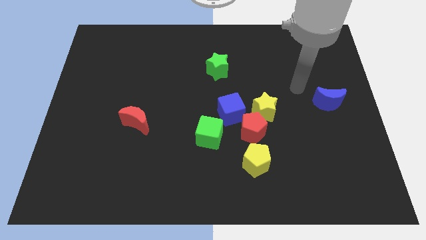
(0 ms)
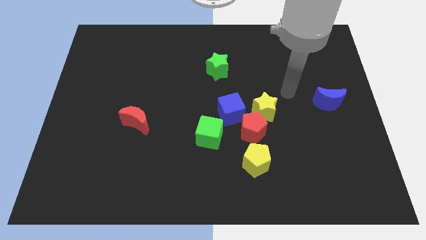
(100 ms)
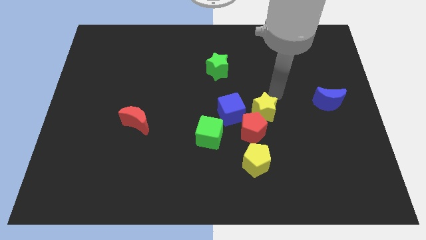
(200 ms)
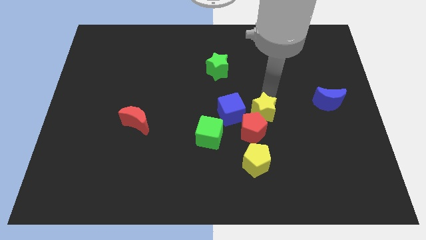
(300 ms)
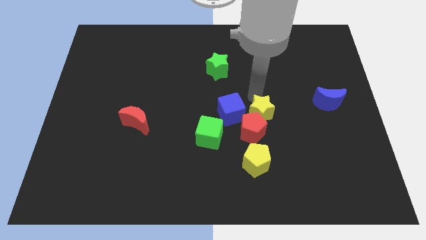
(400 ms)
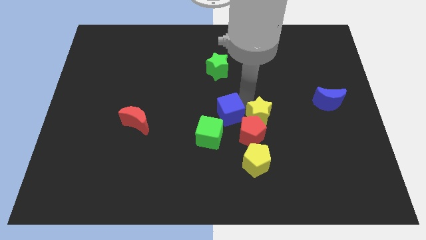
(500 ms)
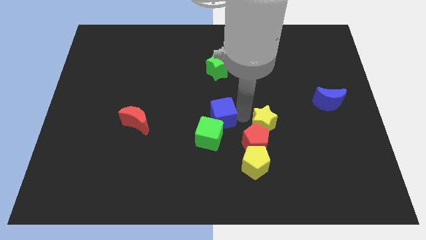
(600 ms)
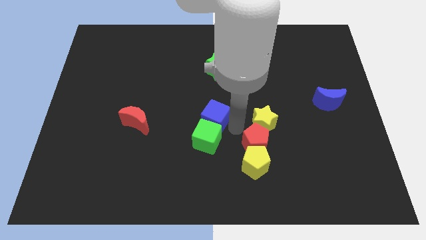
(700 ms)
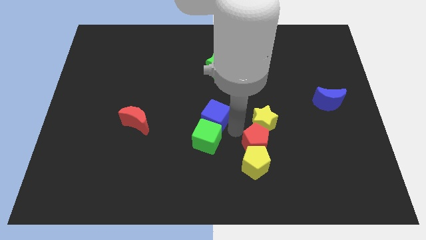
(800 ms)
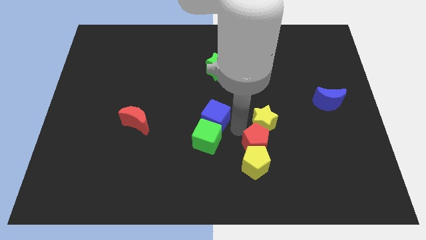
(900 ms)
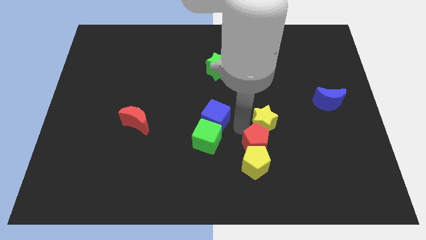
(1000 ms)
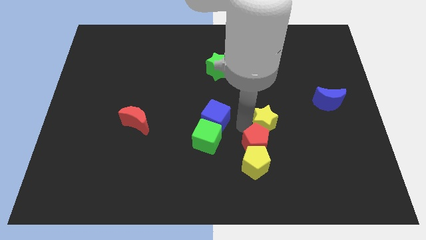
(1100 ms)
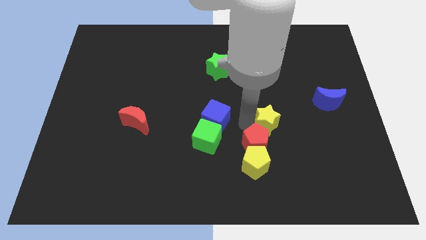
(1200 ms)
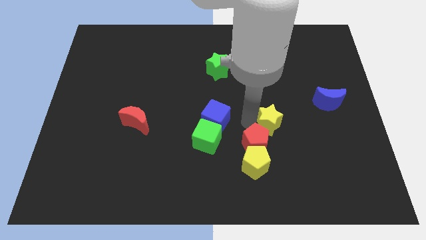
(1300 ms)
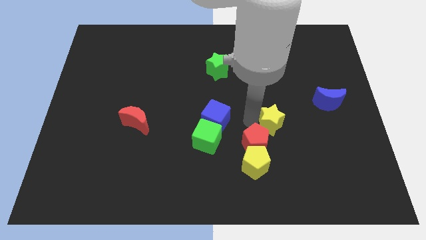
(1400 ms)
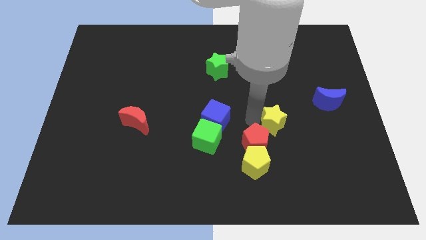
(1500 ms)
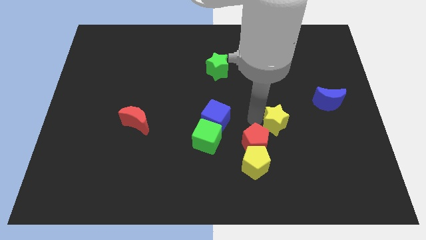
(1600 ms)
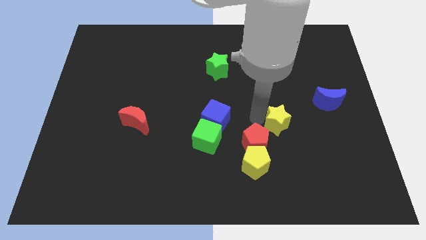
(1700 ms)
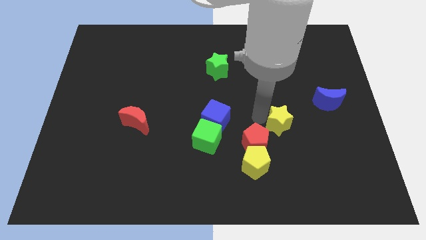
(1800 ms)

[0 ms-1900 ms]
separate the yellow star from the red pentagon and blue cube

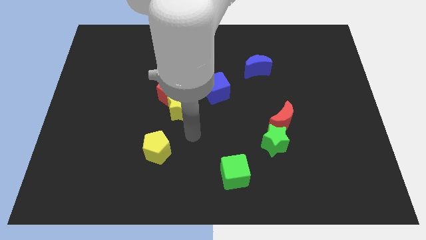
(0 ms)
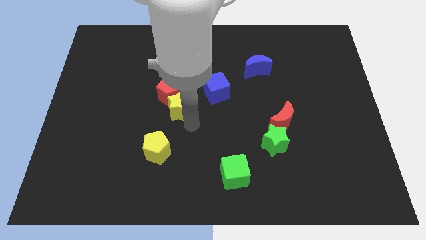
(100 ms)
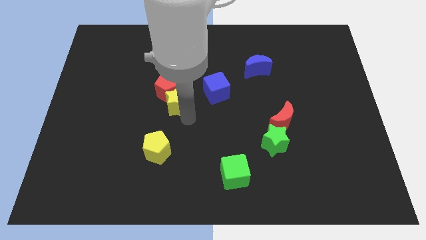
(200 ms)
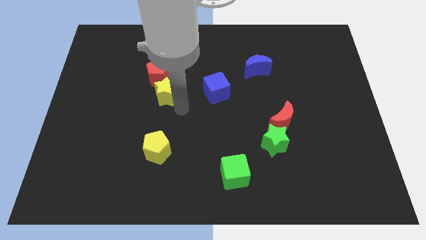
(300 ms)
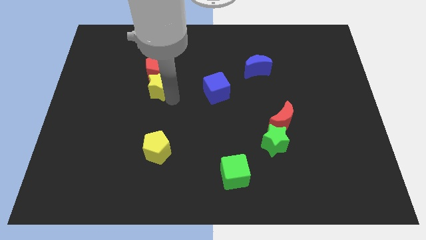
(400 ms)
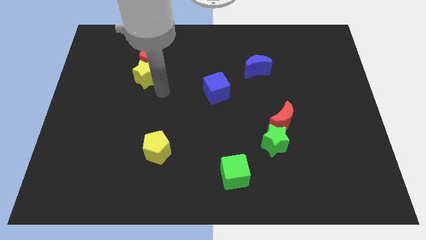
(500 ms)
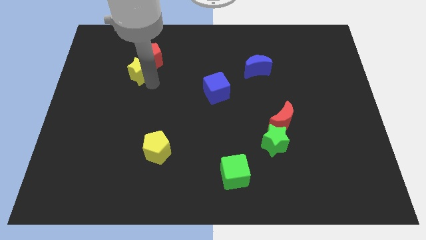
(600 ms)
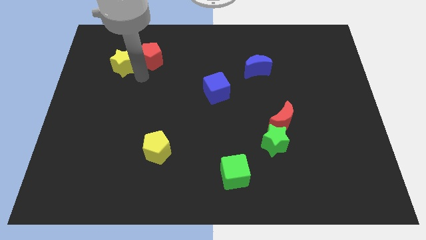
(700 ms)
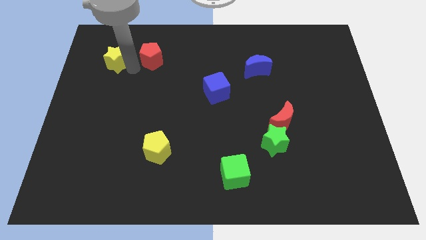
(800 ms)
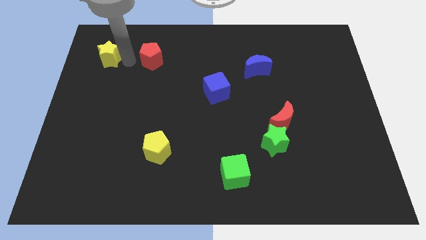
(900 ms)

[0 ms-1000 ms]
pull the red pentagon apart from the yellow star

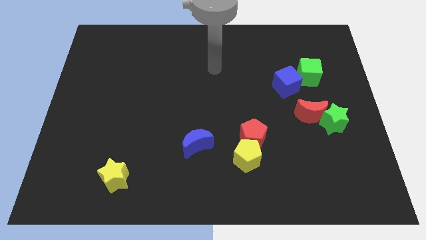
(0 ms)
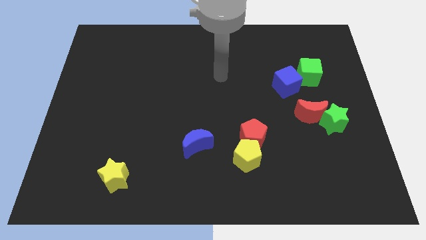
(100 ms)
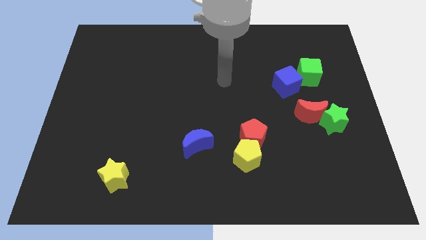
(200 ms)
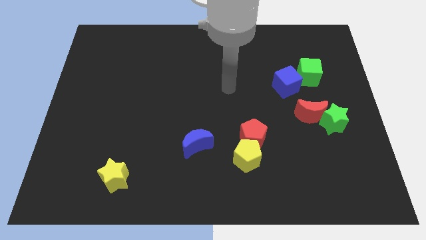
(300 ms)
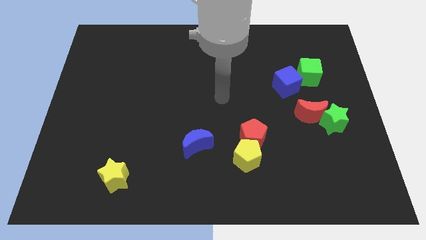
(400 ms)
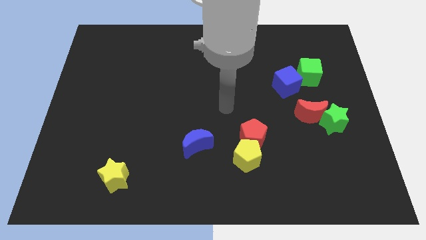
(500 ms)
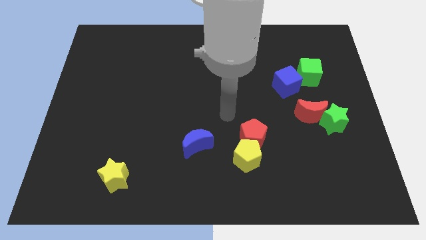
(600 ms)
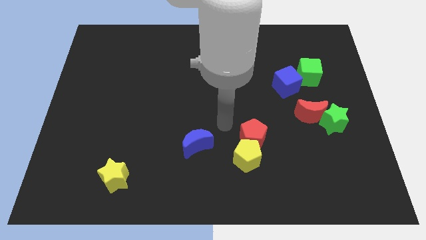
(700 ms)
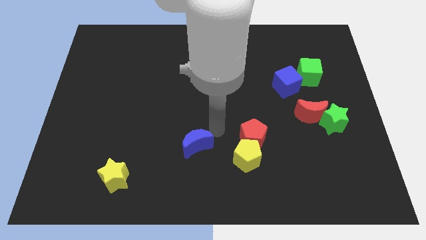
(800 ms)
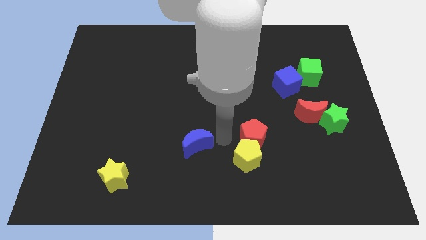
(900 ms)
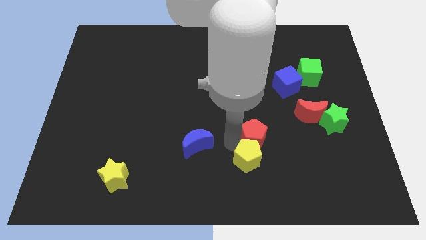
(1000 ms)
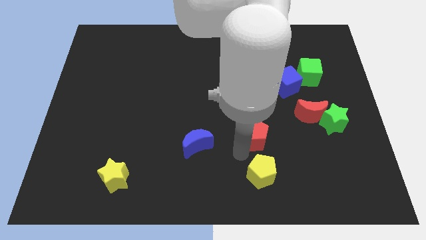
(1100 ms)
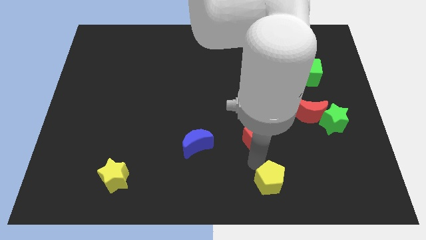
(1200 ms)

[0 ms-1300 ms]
separate the red pentagon from the yellow pentagon

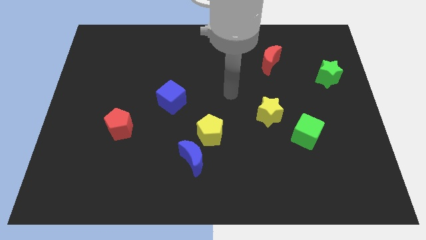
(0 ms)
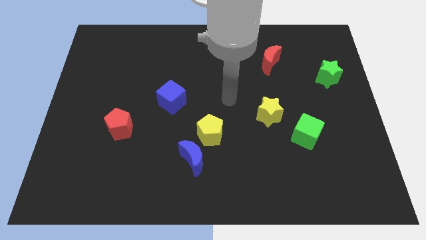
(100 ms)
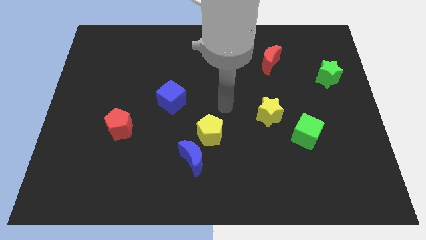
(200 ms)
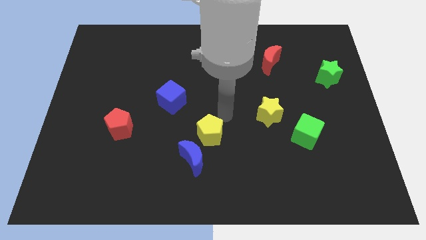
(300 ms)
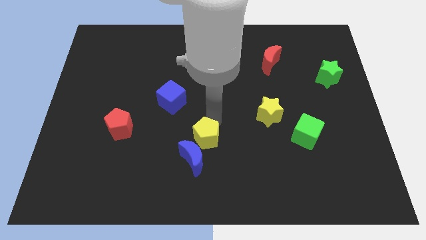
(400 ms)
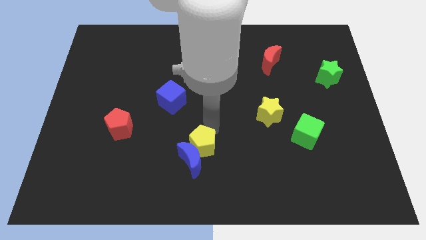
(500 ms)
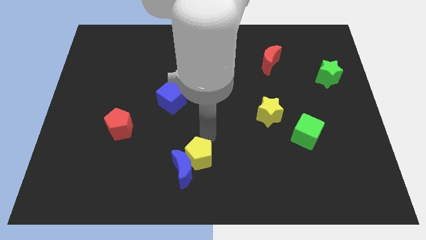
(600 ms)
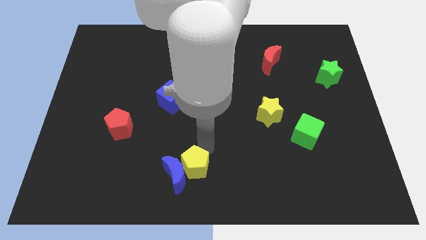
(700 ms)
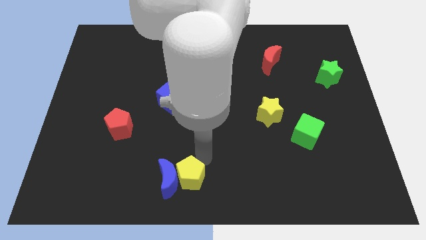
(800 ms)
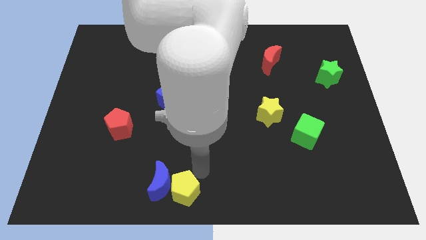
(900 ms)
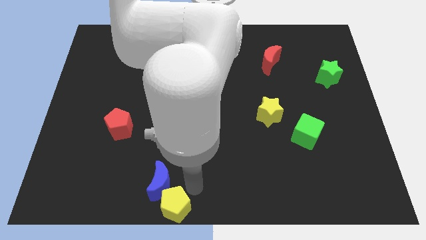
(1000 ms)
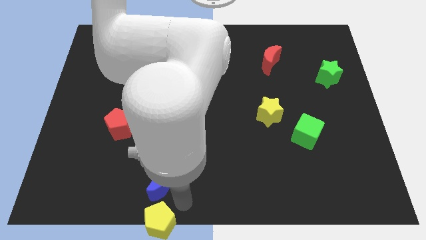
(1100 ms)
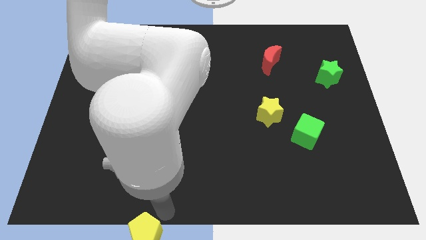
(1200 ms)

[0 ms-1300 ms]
separate the blue moon from the yellow pentagon

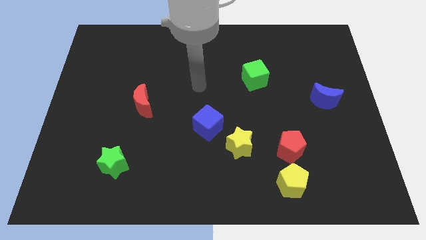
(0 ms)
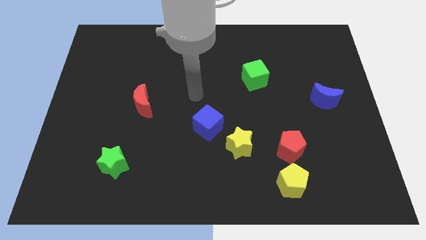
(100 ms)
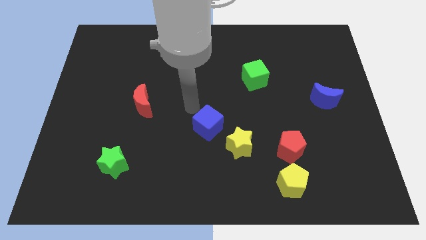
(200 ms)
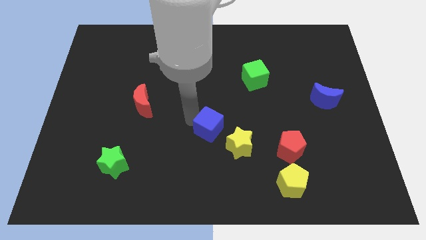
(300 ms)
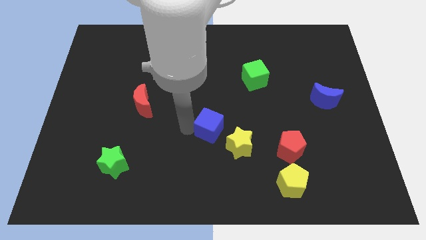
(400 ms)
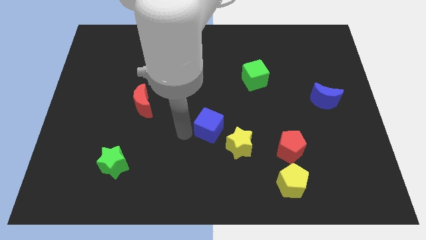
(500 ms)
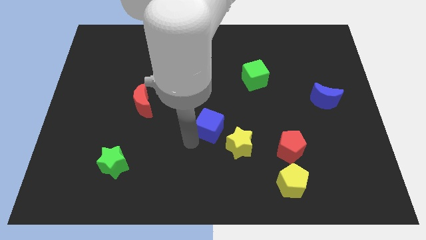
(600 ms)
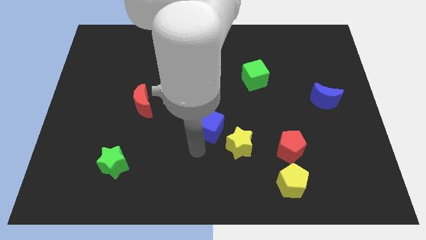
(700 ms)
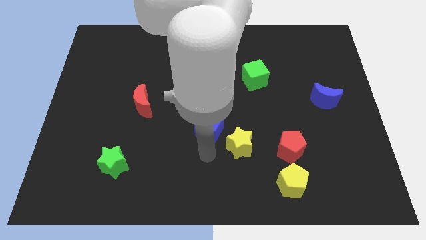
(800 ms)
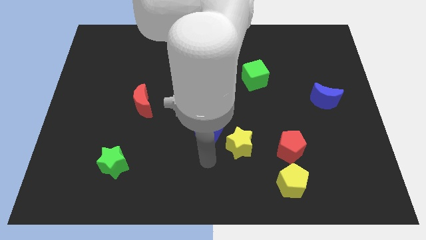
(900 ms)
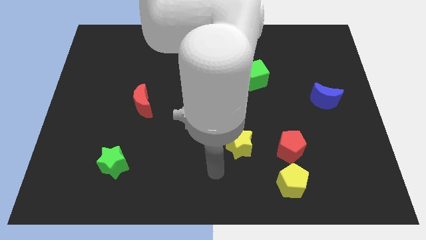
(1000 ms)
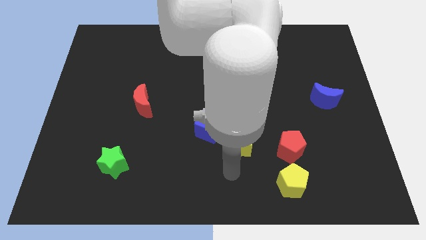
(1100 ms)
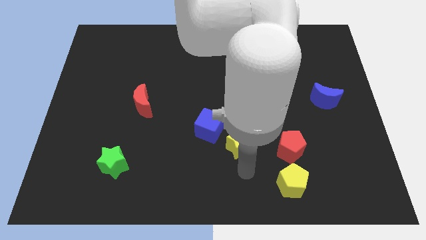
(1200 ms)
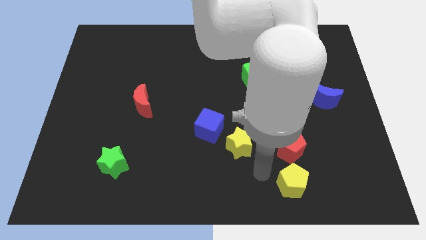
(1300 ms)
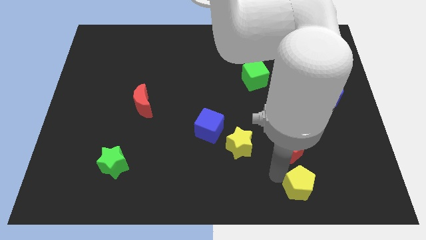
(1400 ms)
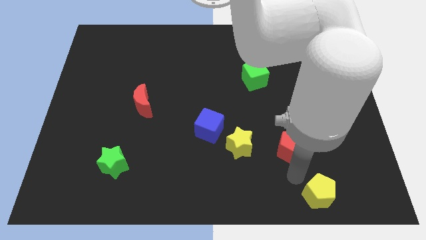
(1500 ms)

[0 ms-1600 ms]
move the red pentagon away from the yellow pentagon

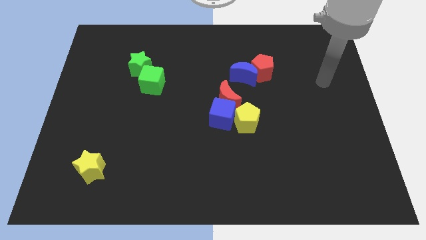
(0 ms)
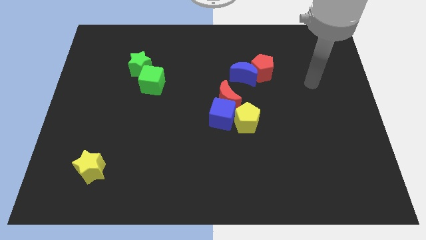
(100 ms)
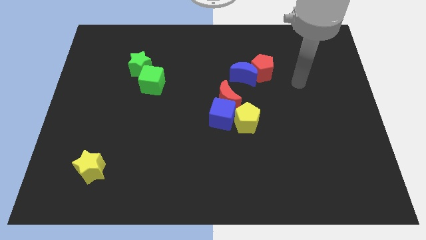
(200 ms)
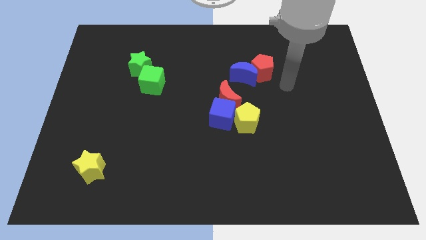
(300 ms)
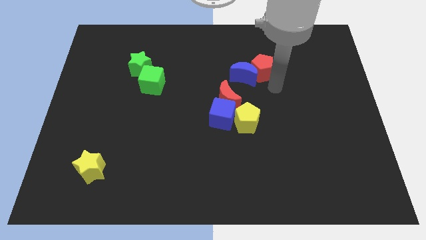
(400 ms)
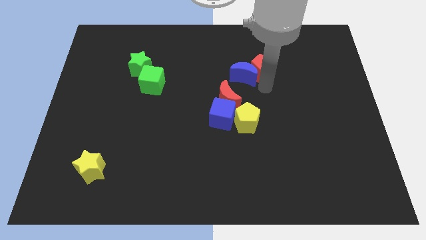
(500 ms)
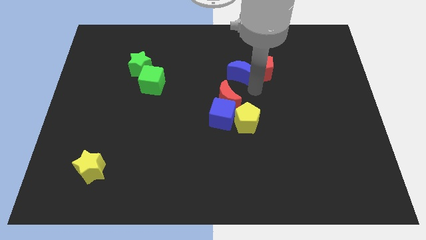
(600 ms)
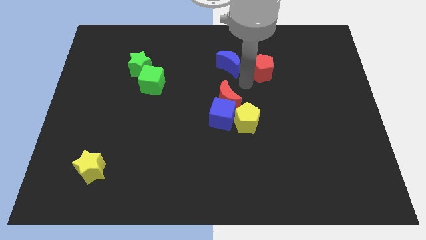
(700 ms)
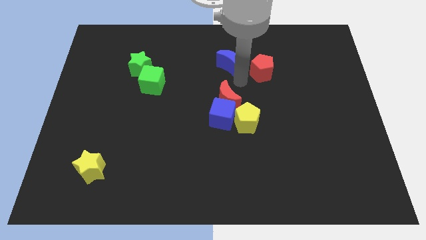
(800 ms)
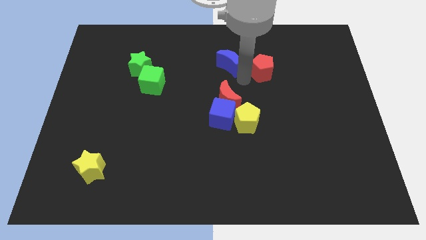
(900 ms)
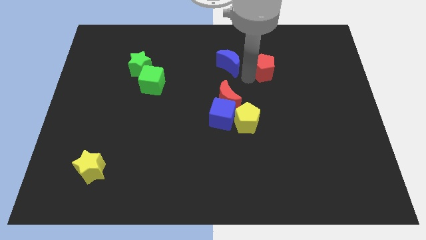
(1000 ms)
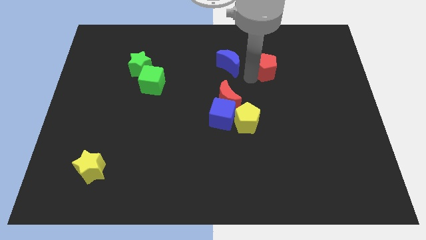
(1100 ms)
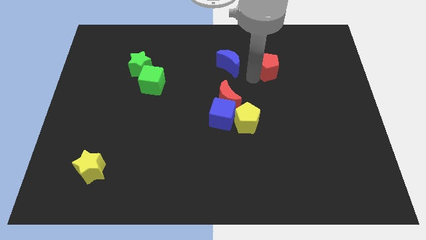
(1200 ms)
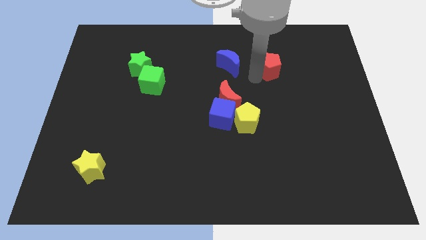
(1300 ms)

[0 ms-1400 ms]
separate the red pentagon from the blue moon

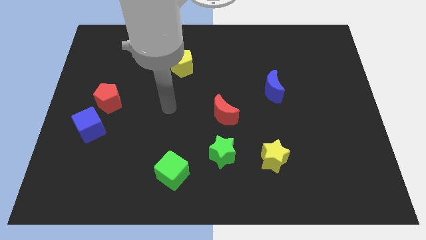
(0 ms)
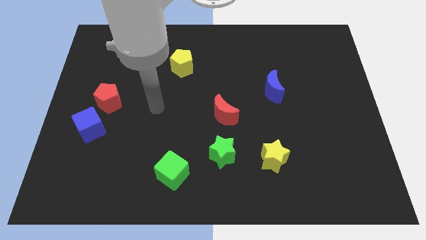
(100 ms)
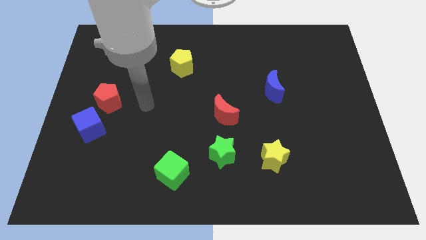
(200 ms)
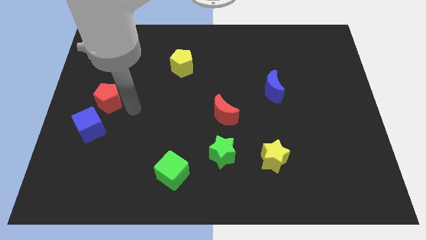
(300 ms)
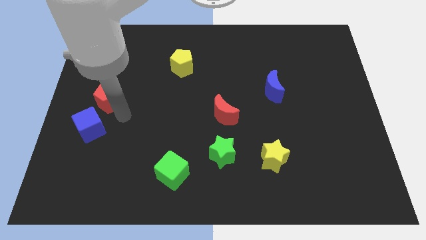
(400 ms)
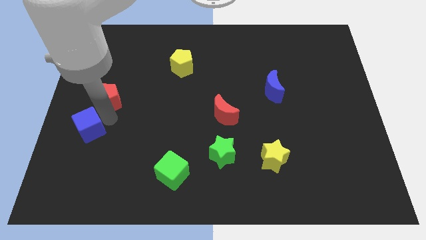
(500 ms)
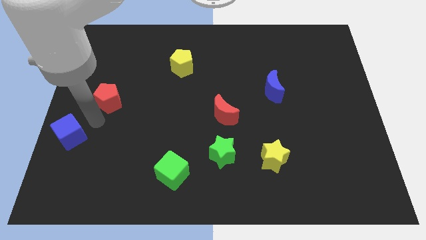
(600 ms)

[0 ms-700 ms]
move the red pentagon away from the blue cube
